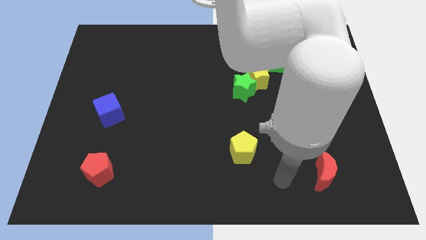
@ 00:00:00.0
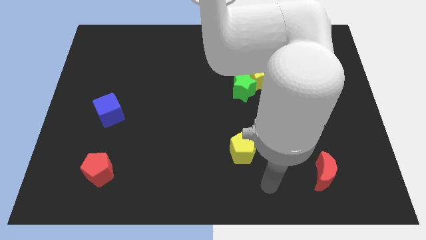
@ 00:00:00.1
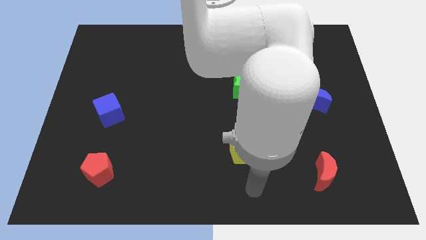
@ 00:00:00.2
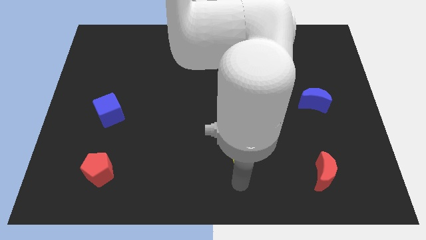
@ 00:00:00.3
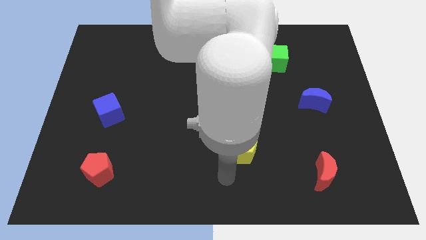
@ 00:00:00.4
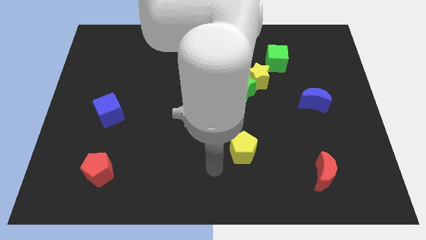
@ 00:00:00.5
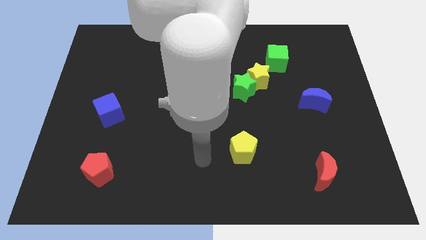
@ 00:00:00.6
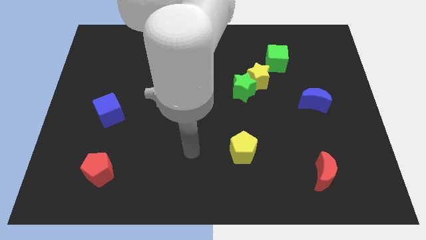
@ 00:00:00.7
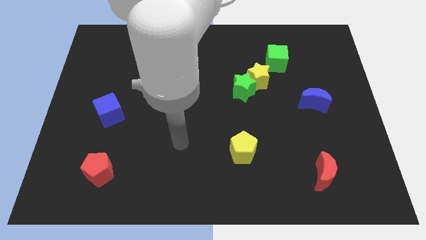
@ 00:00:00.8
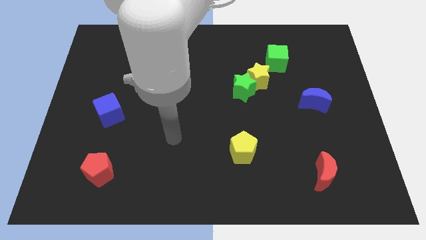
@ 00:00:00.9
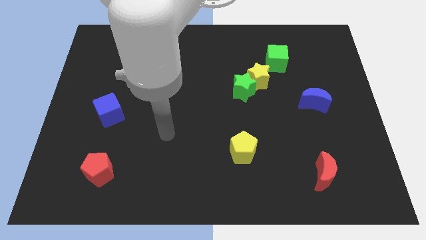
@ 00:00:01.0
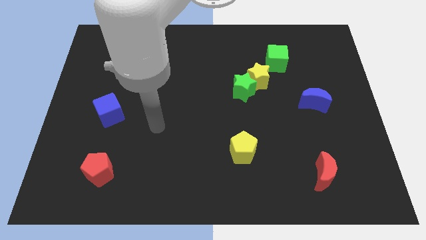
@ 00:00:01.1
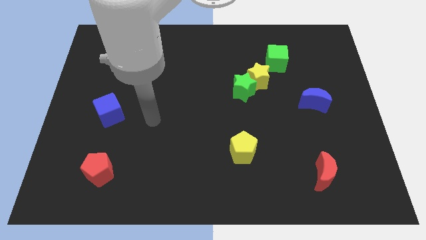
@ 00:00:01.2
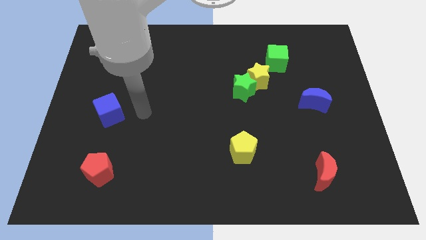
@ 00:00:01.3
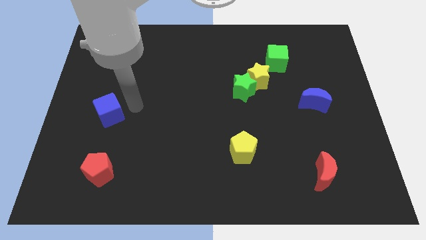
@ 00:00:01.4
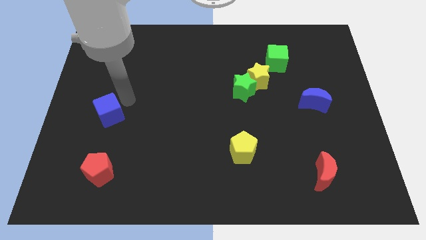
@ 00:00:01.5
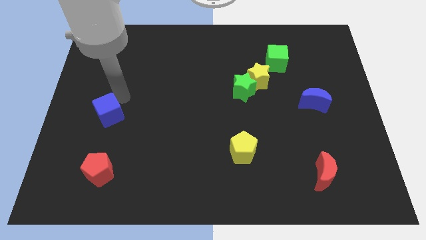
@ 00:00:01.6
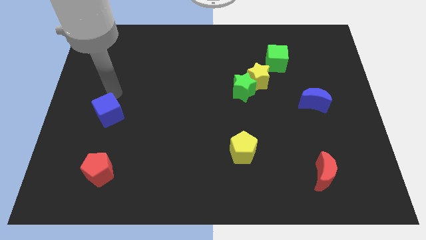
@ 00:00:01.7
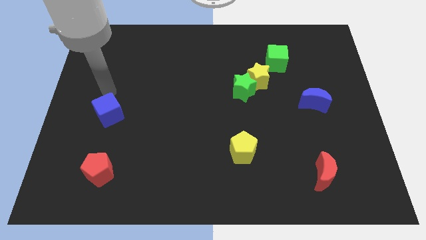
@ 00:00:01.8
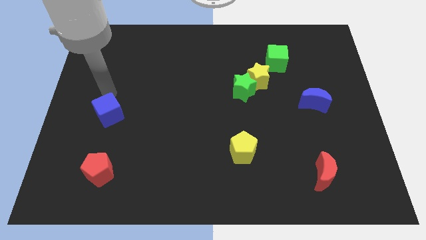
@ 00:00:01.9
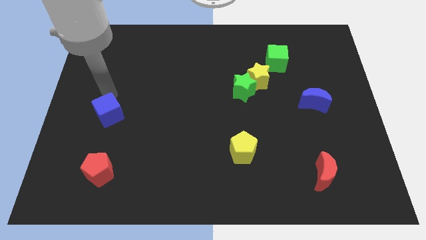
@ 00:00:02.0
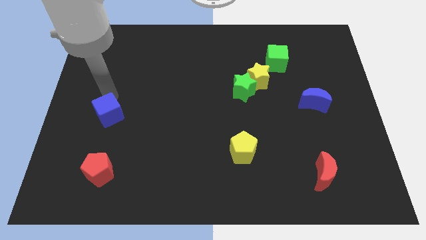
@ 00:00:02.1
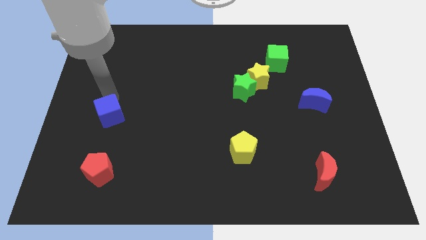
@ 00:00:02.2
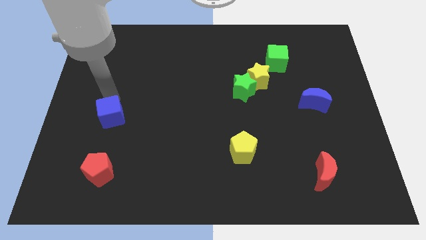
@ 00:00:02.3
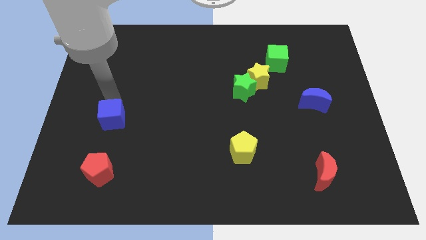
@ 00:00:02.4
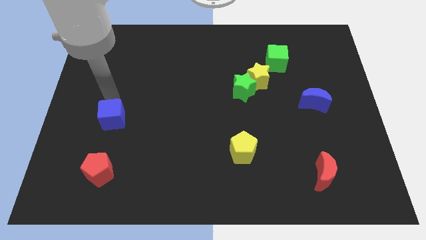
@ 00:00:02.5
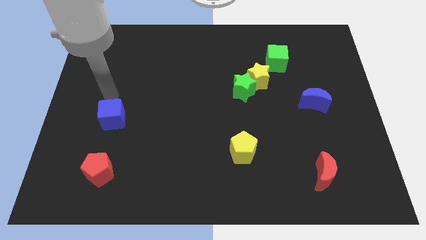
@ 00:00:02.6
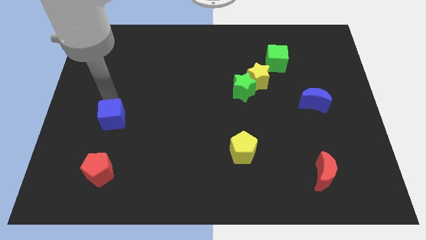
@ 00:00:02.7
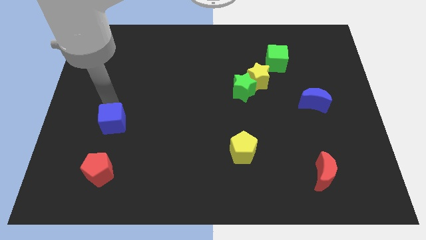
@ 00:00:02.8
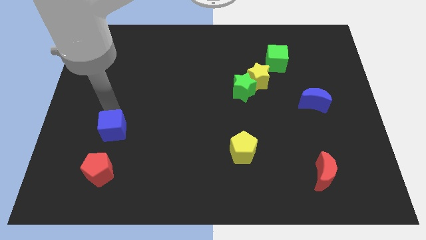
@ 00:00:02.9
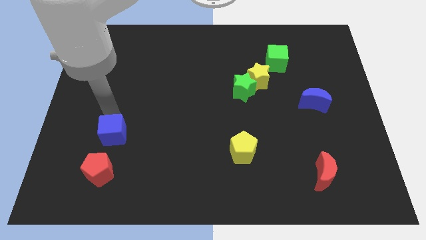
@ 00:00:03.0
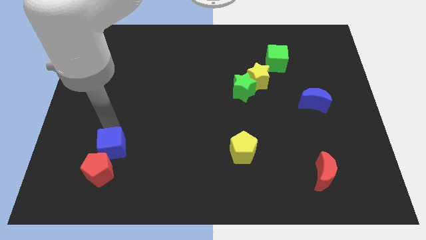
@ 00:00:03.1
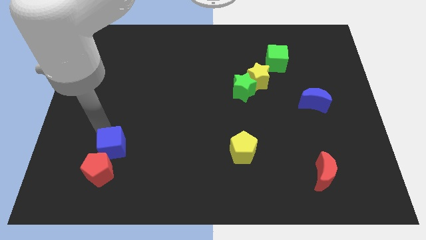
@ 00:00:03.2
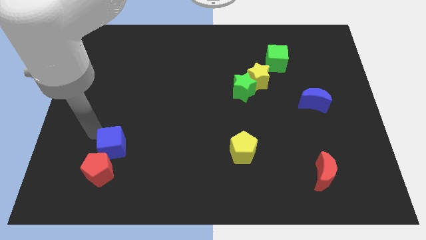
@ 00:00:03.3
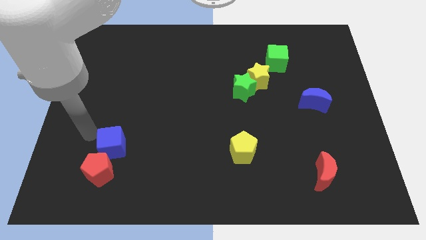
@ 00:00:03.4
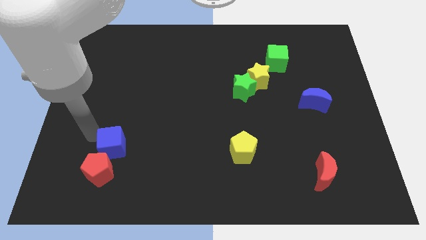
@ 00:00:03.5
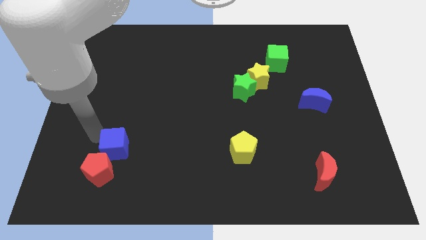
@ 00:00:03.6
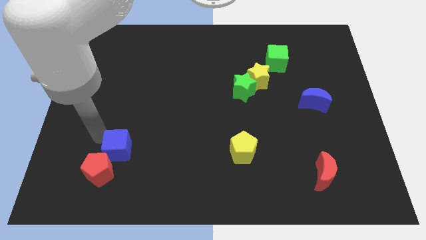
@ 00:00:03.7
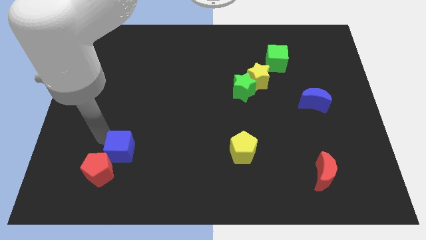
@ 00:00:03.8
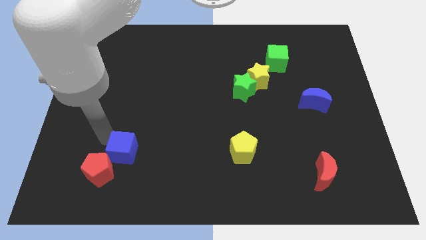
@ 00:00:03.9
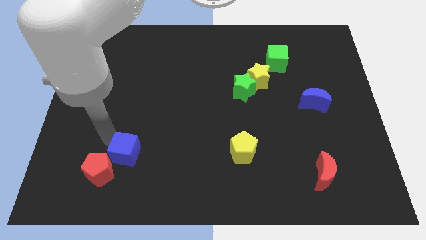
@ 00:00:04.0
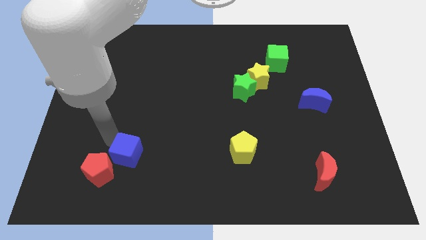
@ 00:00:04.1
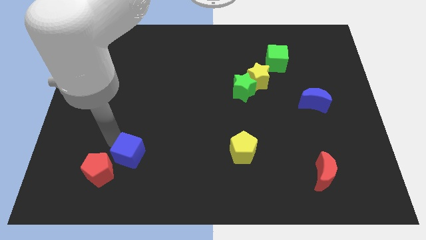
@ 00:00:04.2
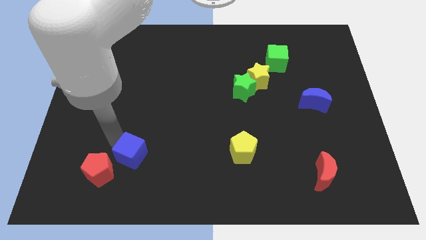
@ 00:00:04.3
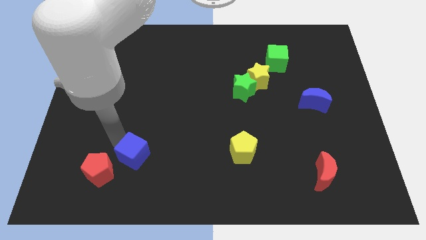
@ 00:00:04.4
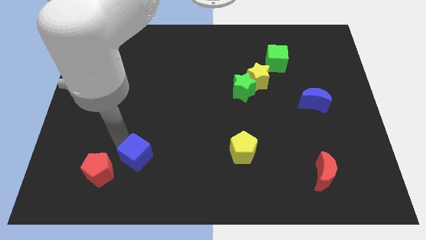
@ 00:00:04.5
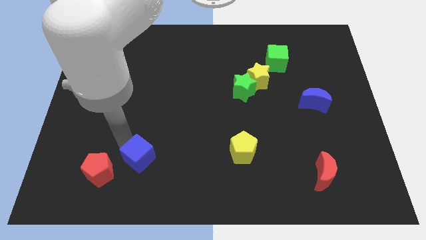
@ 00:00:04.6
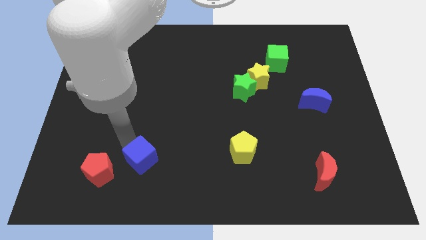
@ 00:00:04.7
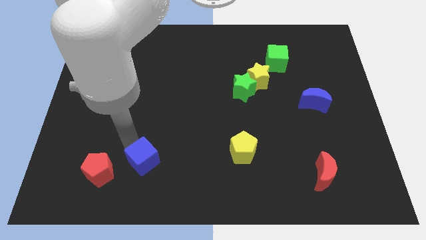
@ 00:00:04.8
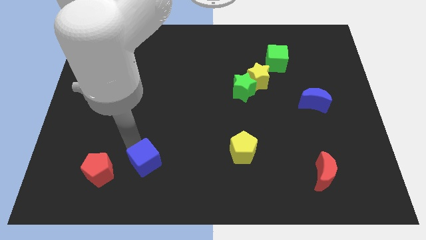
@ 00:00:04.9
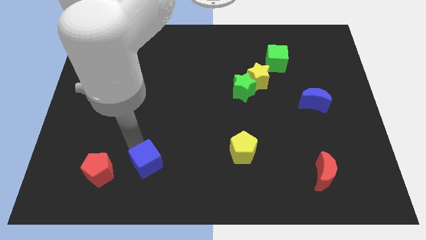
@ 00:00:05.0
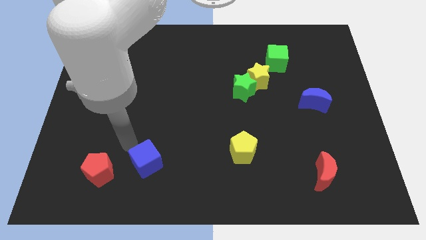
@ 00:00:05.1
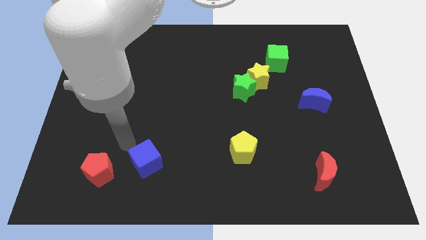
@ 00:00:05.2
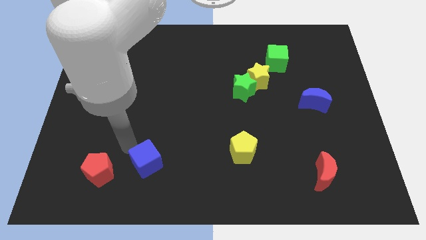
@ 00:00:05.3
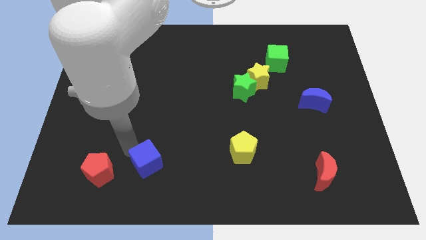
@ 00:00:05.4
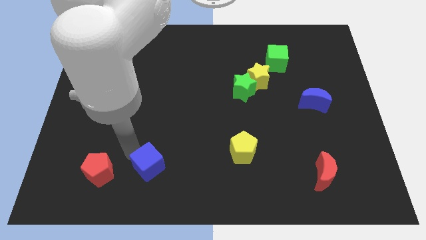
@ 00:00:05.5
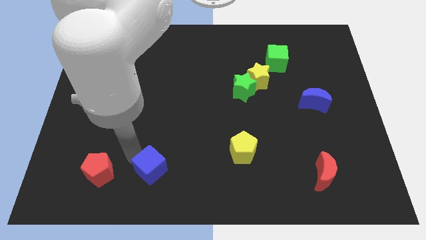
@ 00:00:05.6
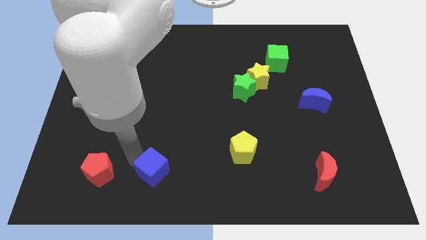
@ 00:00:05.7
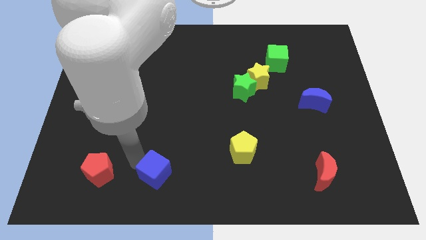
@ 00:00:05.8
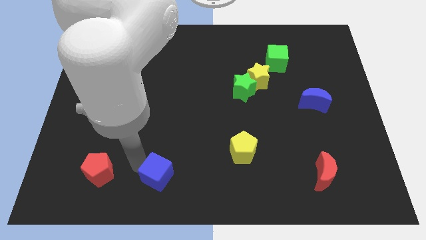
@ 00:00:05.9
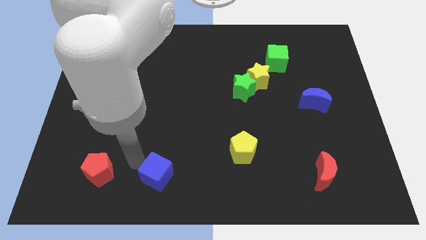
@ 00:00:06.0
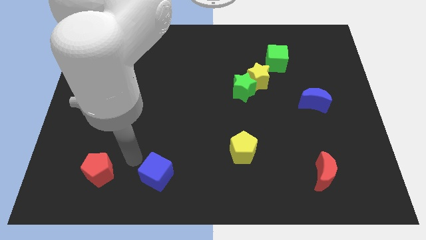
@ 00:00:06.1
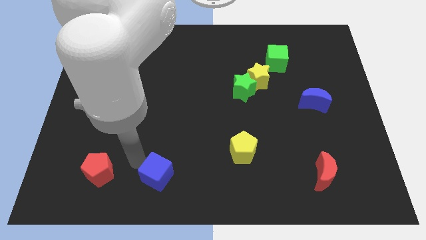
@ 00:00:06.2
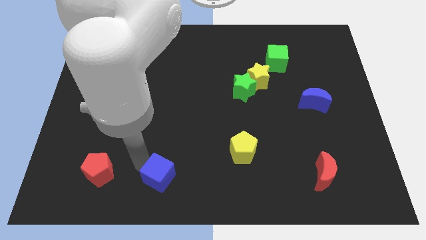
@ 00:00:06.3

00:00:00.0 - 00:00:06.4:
move the blue cube to the bottom side
